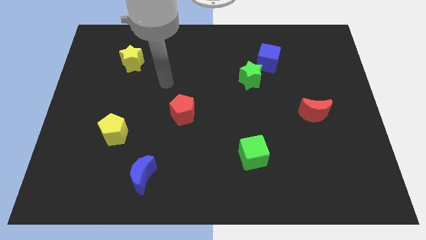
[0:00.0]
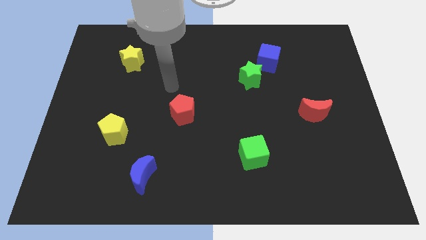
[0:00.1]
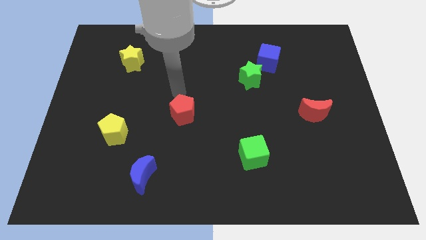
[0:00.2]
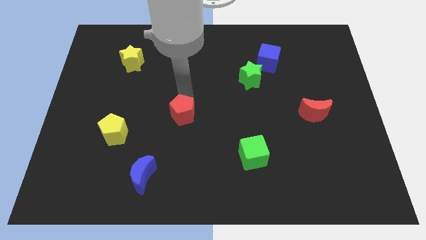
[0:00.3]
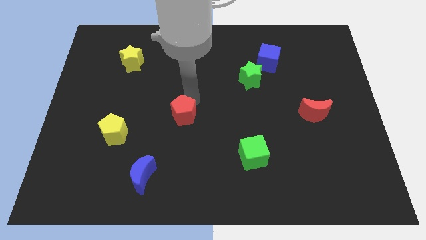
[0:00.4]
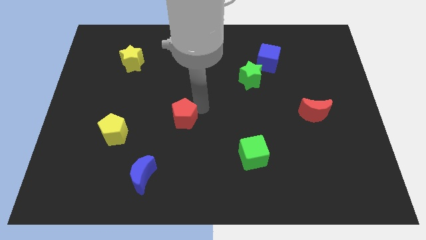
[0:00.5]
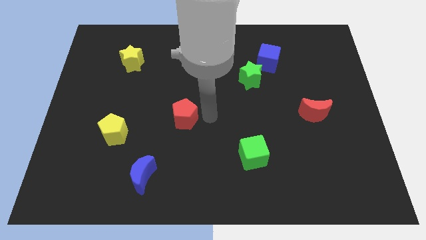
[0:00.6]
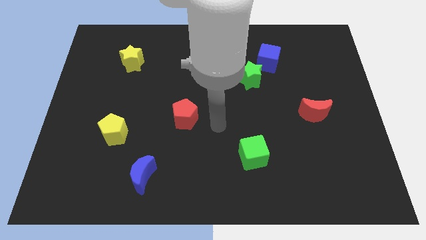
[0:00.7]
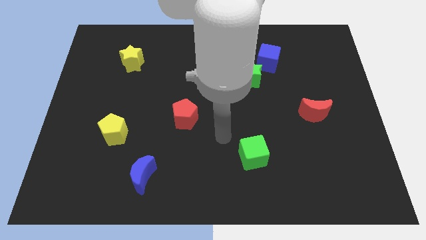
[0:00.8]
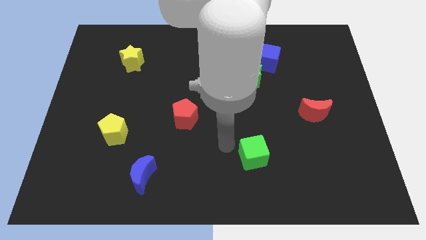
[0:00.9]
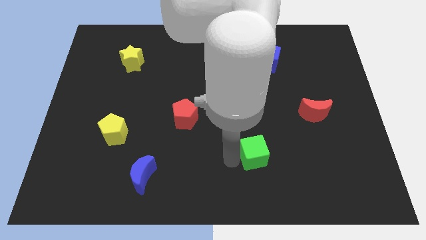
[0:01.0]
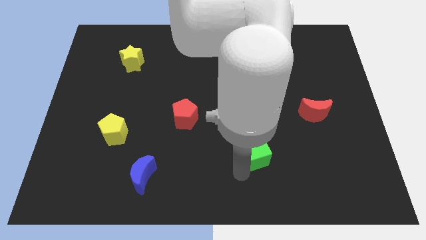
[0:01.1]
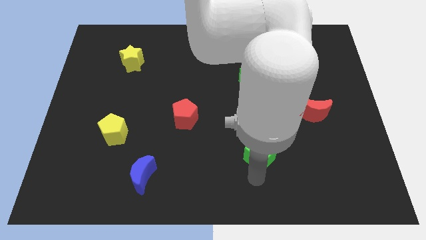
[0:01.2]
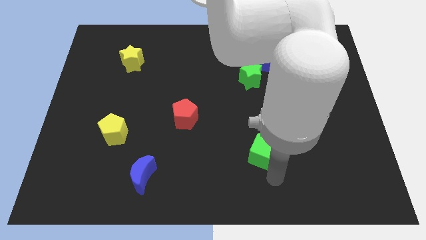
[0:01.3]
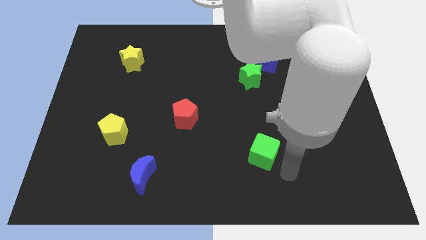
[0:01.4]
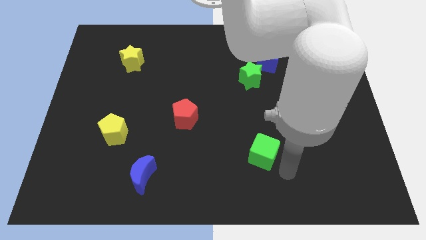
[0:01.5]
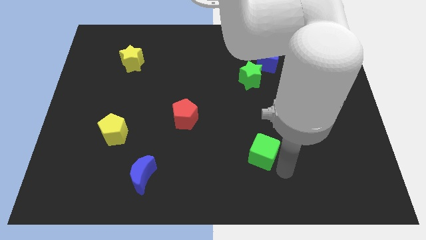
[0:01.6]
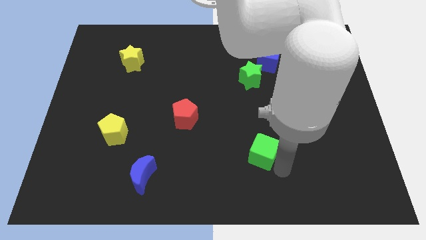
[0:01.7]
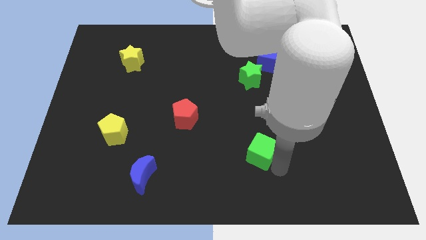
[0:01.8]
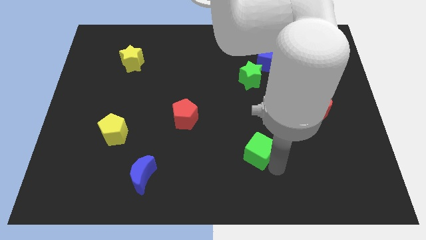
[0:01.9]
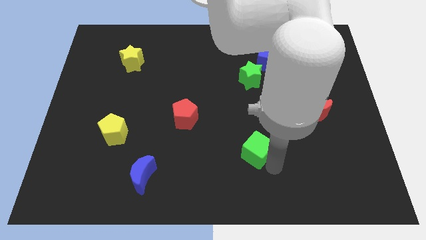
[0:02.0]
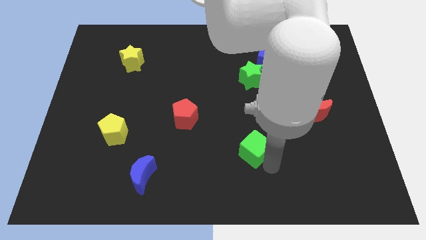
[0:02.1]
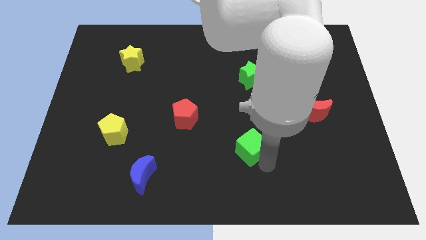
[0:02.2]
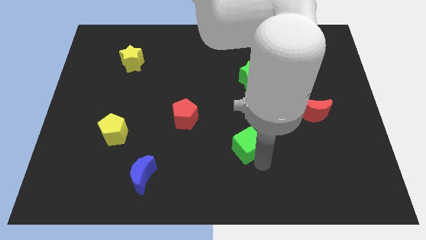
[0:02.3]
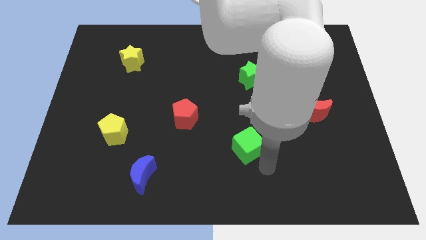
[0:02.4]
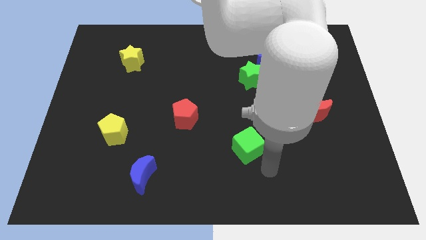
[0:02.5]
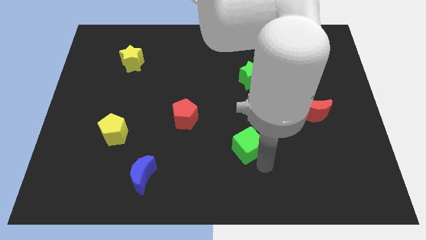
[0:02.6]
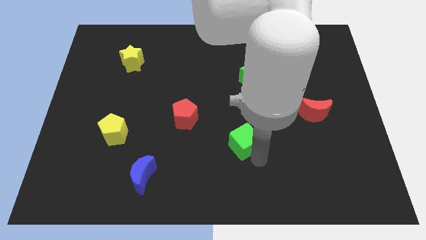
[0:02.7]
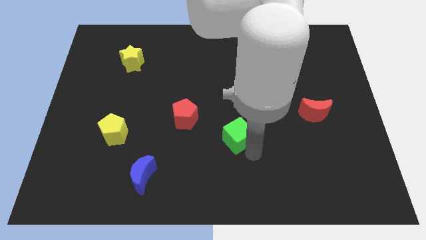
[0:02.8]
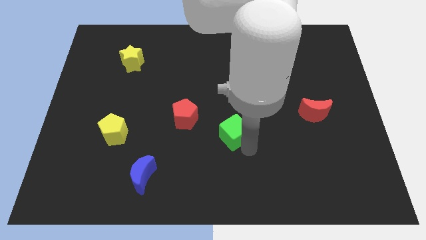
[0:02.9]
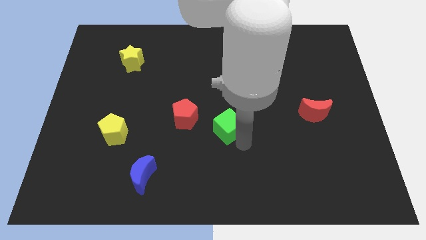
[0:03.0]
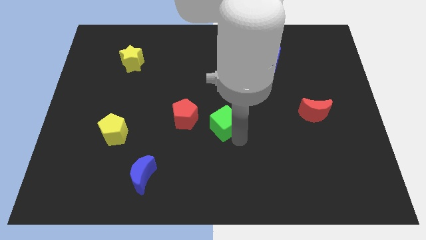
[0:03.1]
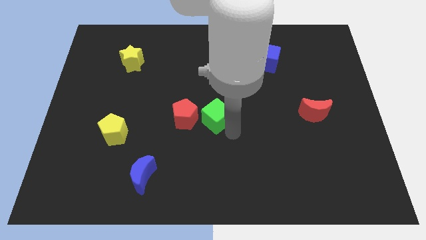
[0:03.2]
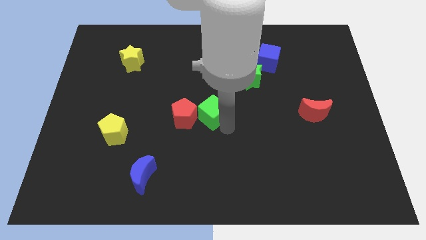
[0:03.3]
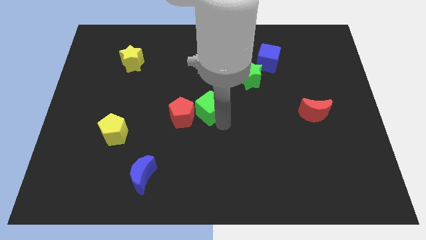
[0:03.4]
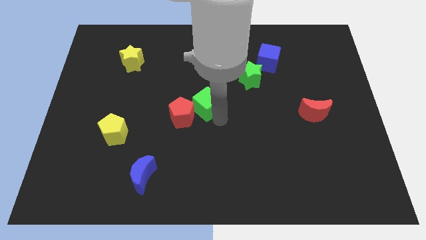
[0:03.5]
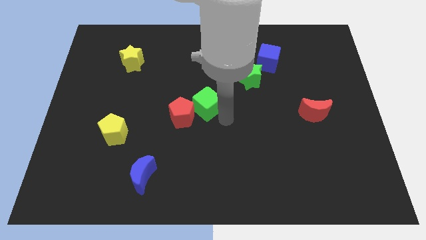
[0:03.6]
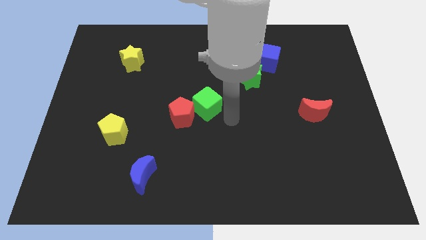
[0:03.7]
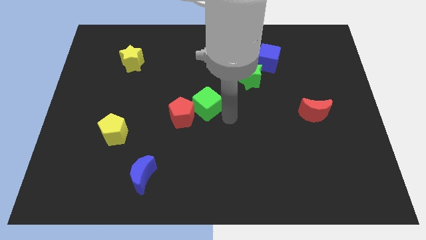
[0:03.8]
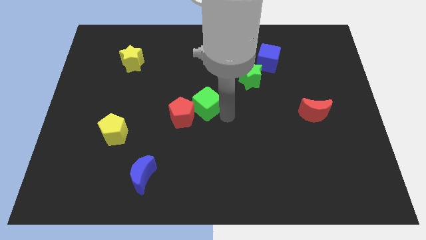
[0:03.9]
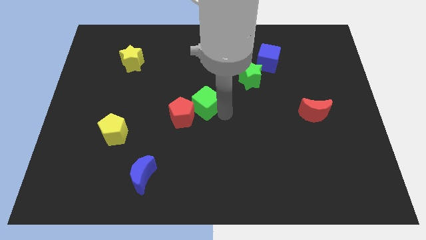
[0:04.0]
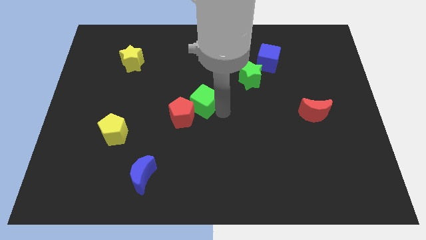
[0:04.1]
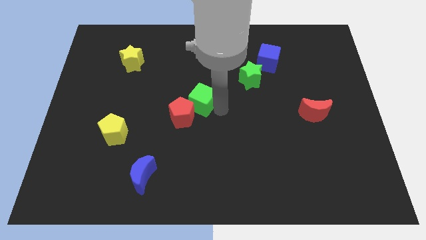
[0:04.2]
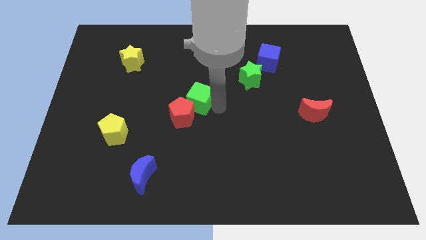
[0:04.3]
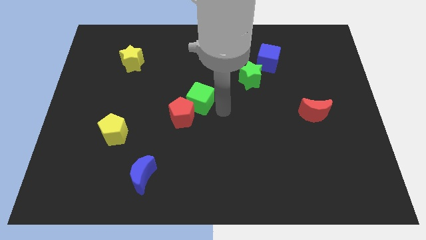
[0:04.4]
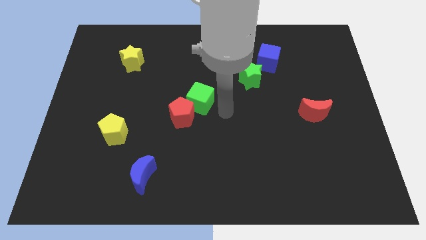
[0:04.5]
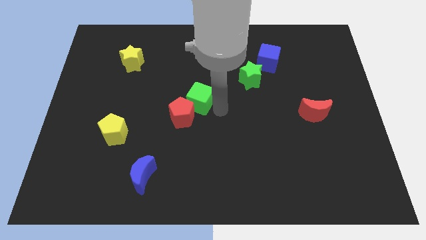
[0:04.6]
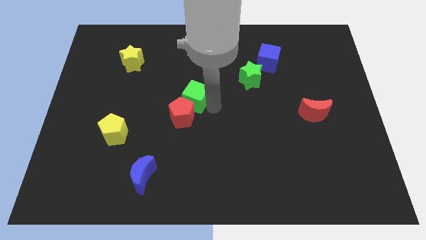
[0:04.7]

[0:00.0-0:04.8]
move the green cube upwards and left diagonally

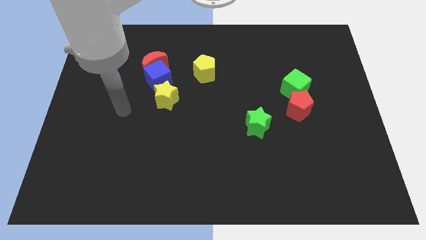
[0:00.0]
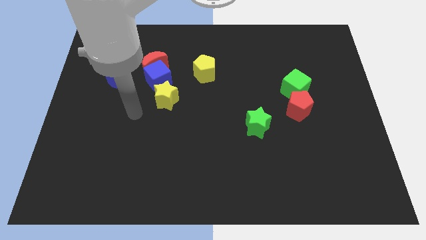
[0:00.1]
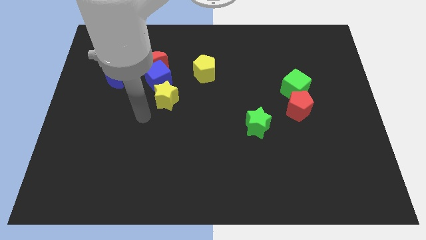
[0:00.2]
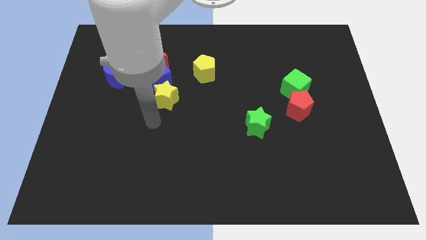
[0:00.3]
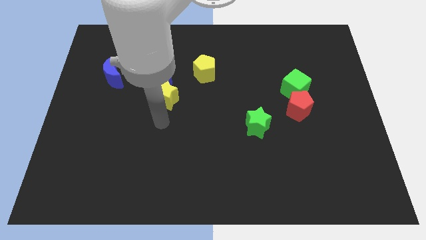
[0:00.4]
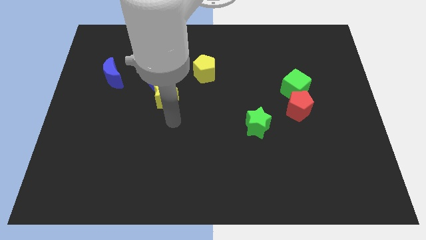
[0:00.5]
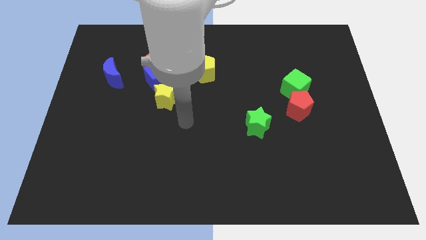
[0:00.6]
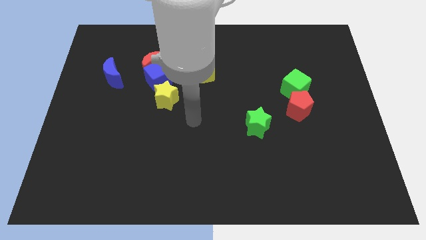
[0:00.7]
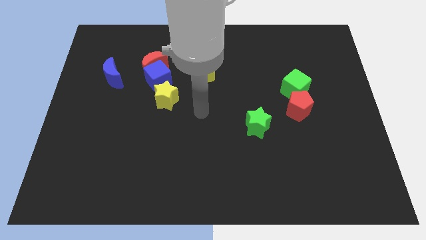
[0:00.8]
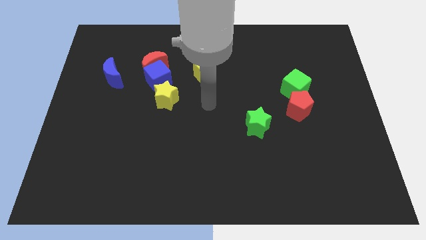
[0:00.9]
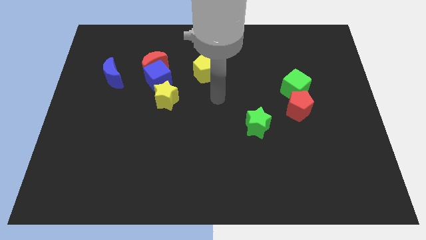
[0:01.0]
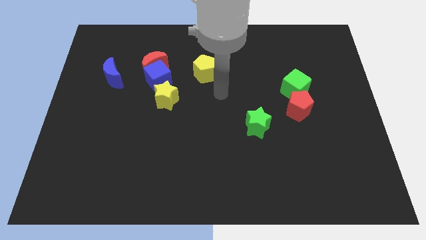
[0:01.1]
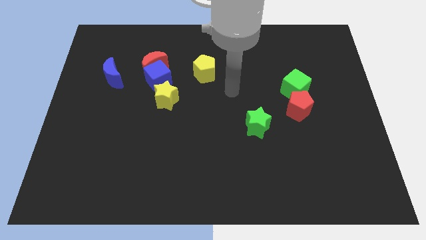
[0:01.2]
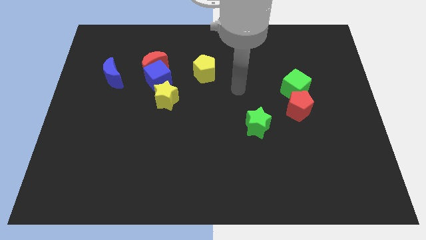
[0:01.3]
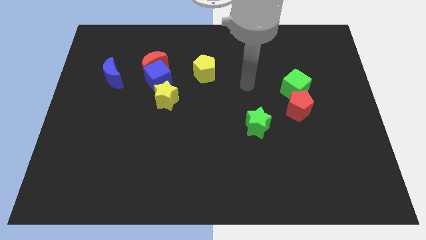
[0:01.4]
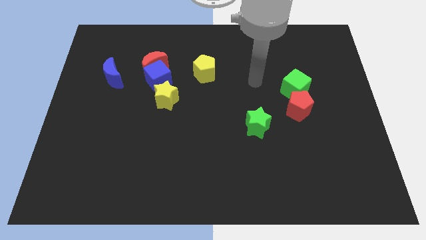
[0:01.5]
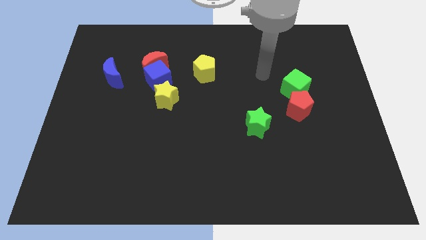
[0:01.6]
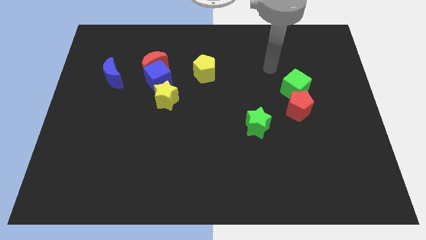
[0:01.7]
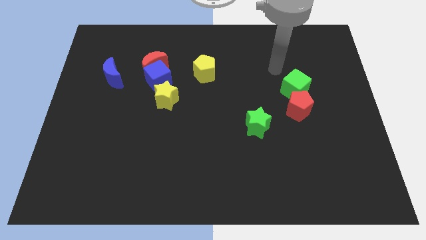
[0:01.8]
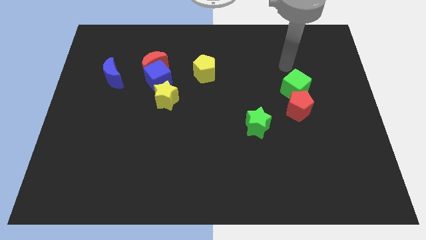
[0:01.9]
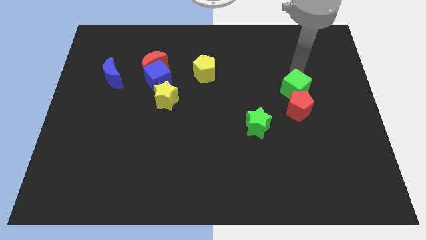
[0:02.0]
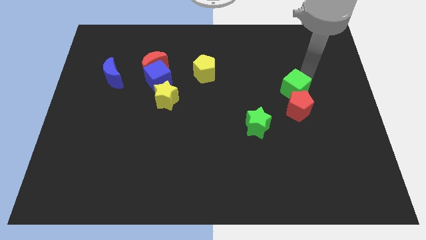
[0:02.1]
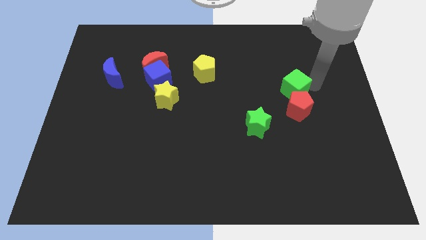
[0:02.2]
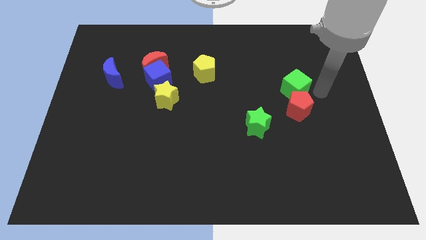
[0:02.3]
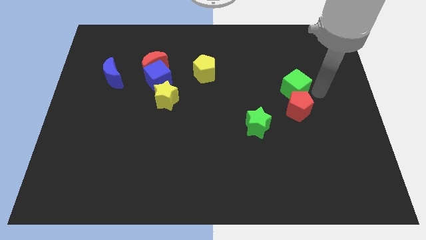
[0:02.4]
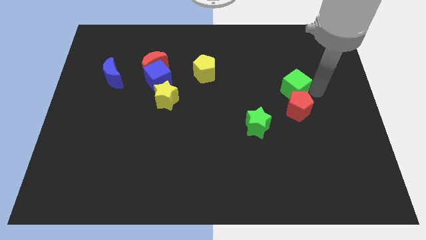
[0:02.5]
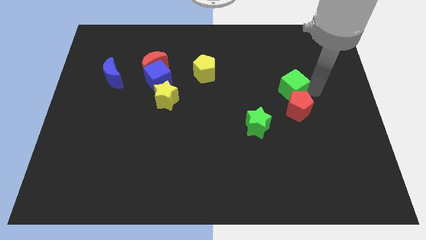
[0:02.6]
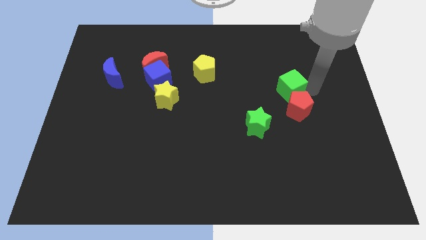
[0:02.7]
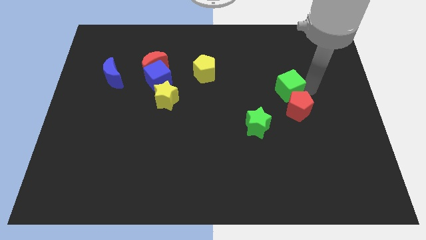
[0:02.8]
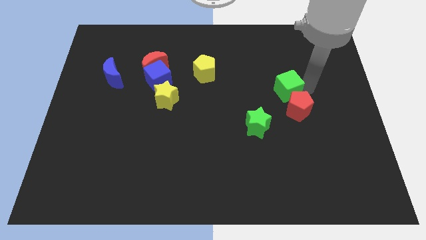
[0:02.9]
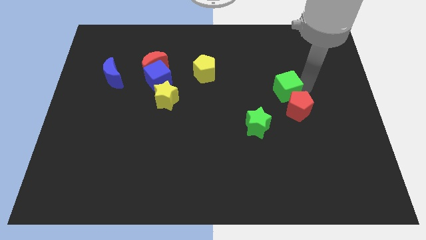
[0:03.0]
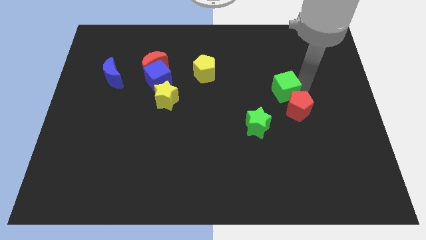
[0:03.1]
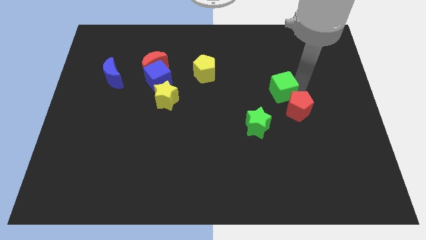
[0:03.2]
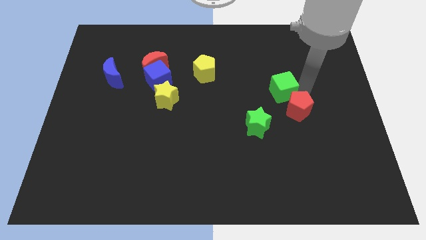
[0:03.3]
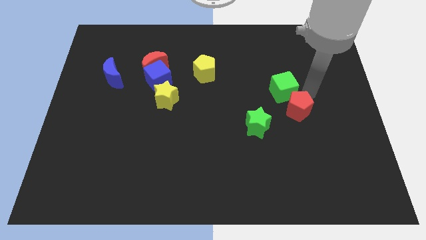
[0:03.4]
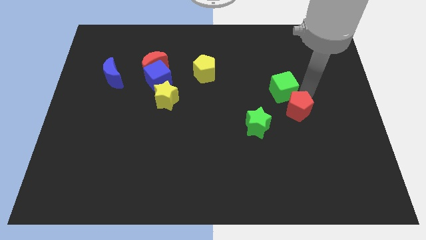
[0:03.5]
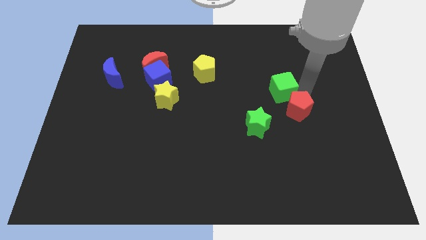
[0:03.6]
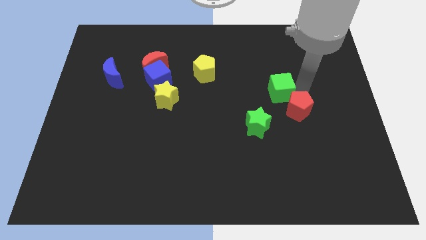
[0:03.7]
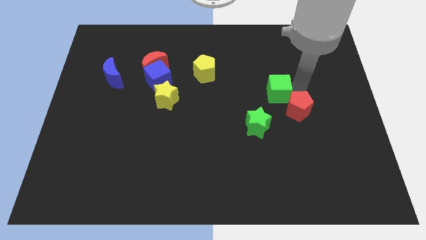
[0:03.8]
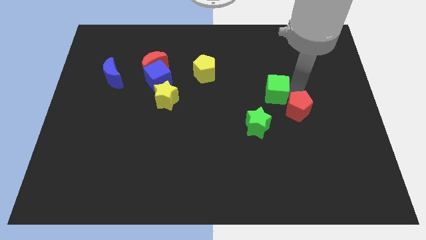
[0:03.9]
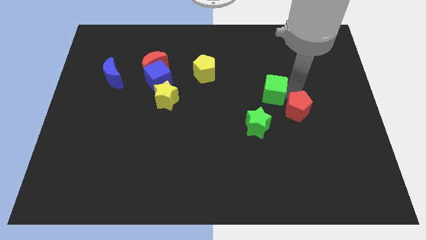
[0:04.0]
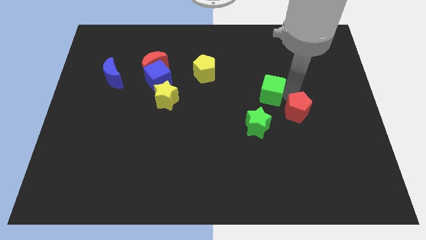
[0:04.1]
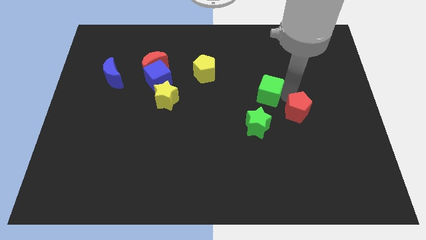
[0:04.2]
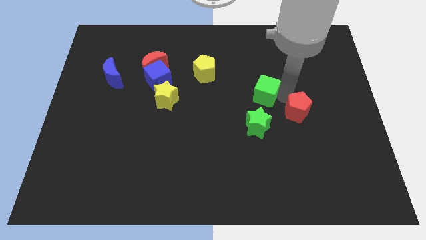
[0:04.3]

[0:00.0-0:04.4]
push the green cube slightly to the left
